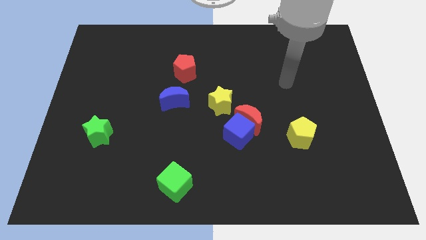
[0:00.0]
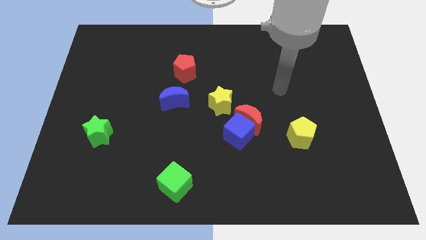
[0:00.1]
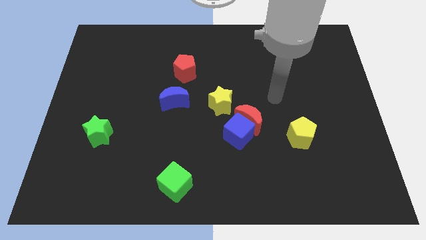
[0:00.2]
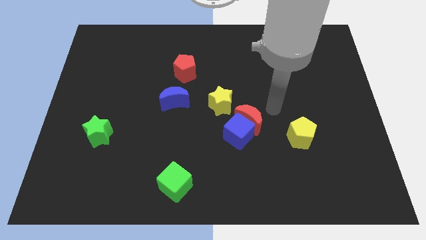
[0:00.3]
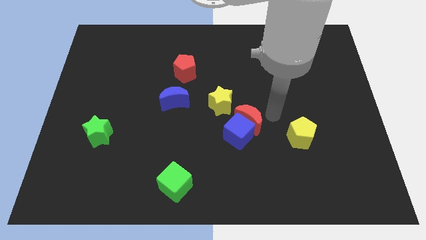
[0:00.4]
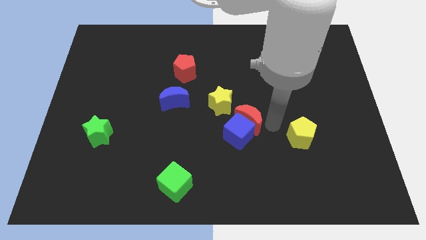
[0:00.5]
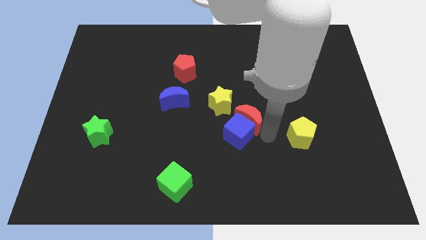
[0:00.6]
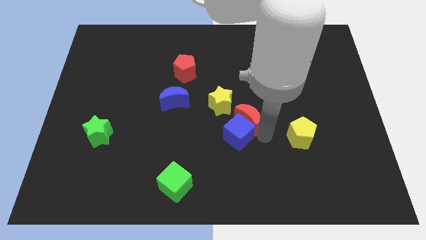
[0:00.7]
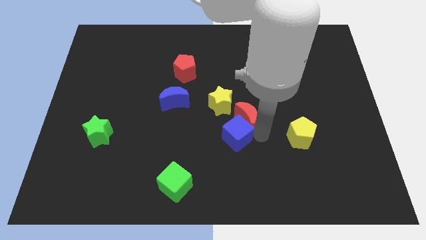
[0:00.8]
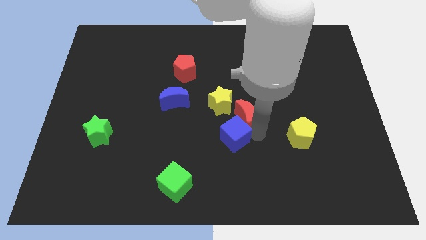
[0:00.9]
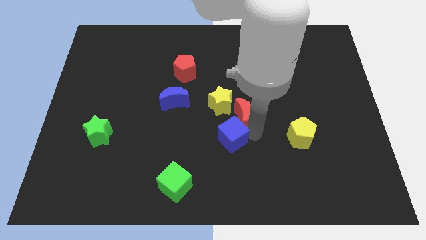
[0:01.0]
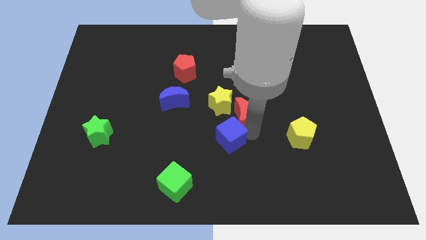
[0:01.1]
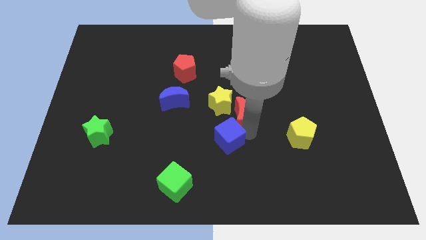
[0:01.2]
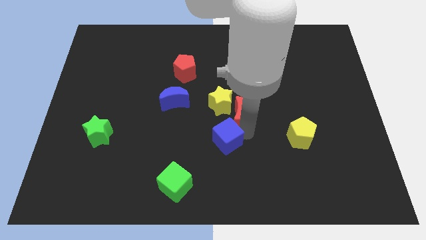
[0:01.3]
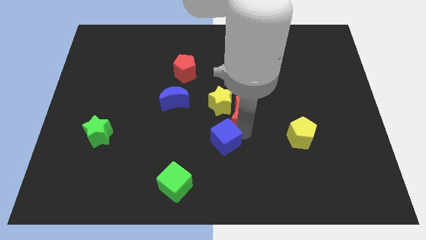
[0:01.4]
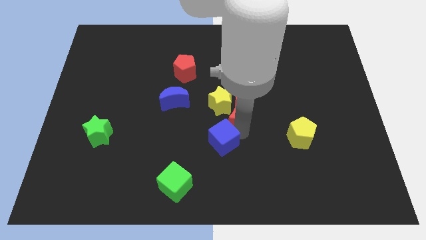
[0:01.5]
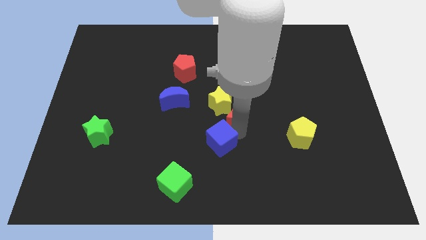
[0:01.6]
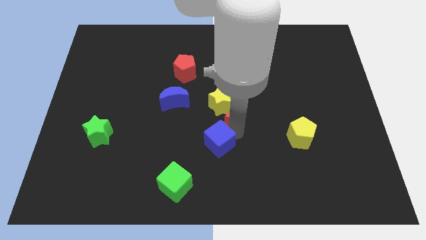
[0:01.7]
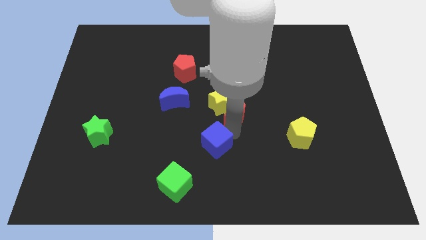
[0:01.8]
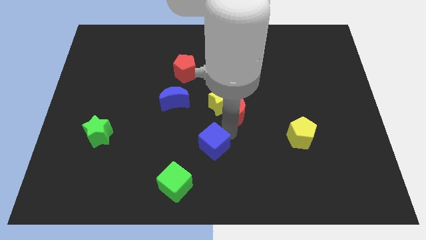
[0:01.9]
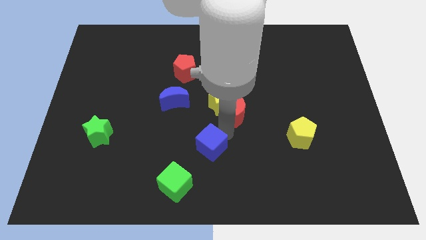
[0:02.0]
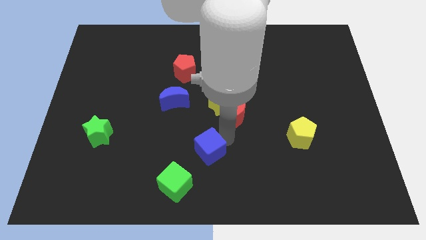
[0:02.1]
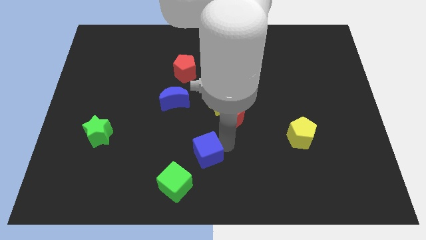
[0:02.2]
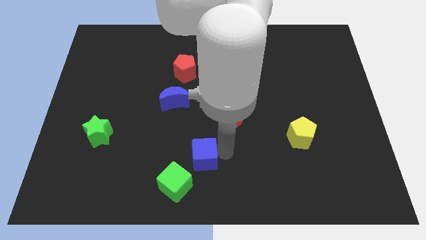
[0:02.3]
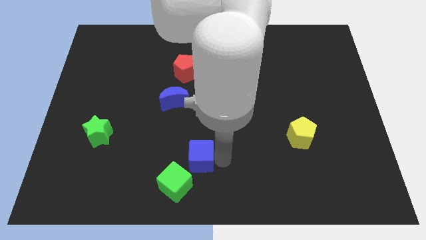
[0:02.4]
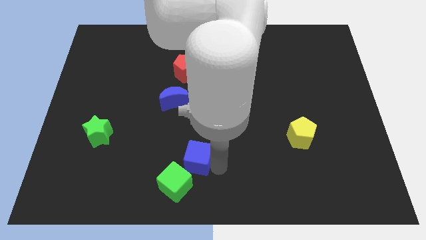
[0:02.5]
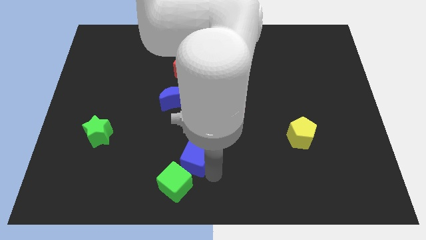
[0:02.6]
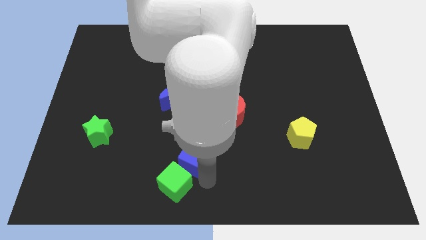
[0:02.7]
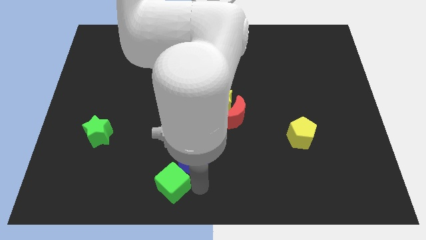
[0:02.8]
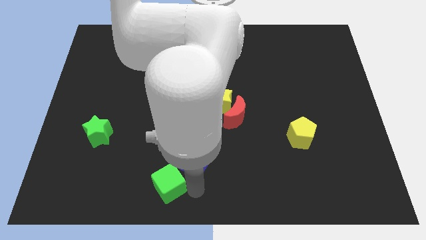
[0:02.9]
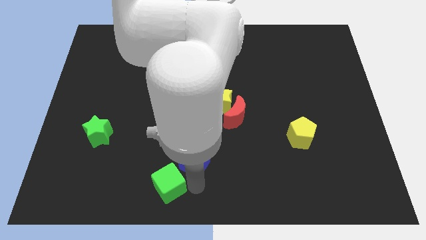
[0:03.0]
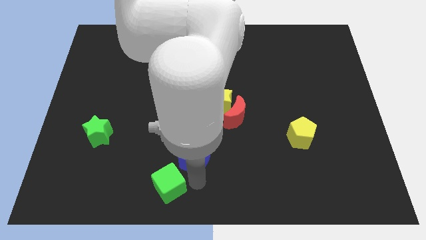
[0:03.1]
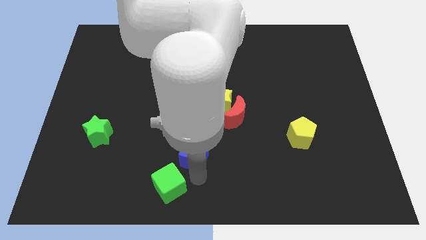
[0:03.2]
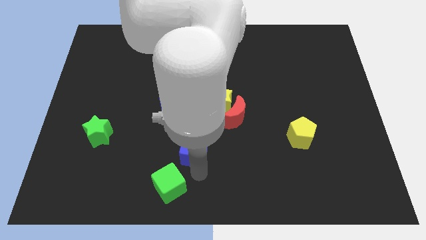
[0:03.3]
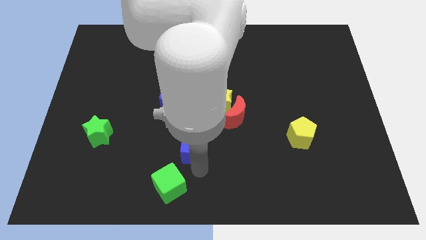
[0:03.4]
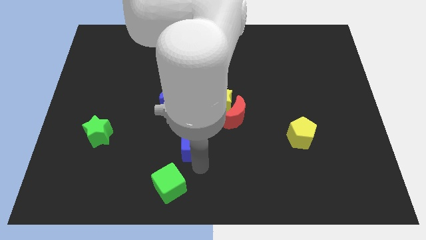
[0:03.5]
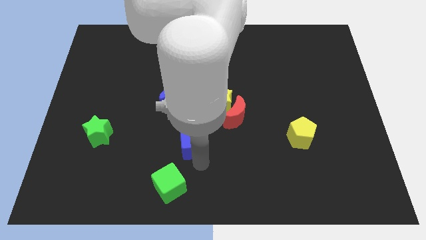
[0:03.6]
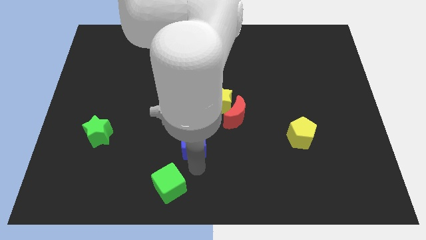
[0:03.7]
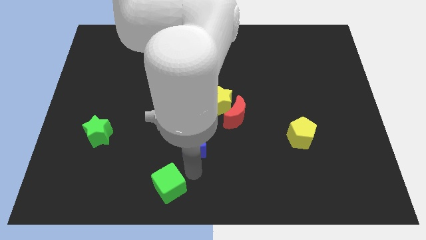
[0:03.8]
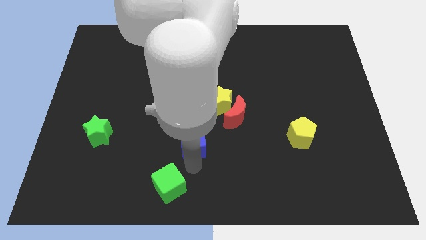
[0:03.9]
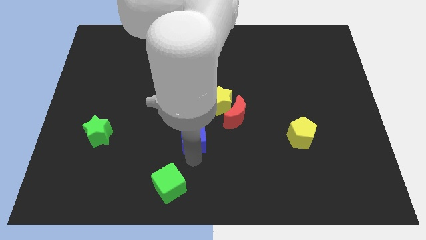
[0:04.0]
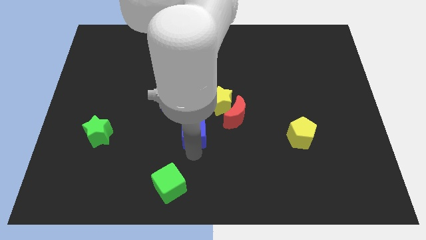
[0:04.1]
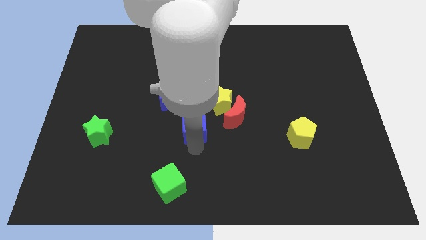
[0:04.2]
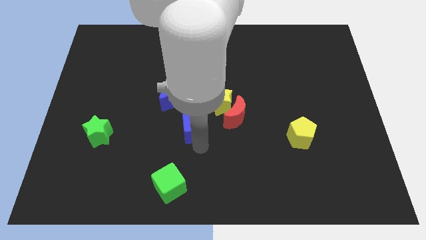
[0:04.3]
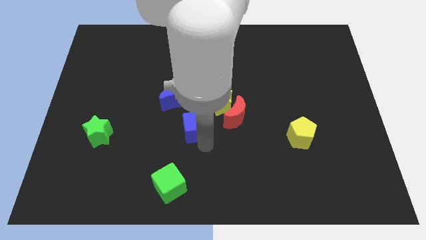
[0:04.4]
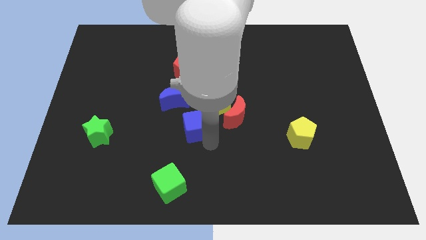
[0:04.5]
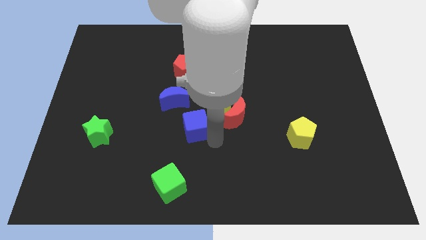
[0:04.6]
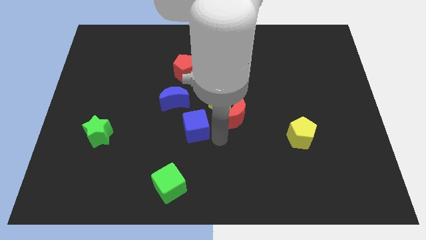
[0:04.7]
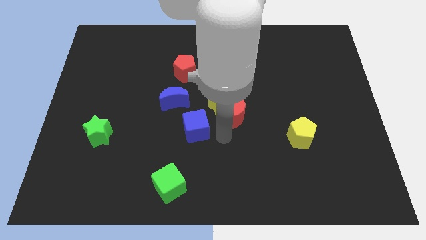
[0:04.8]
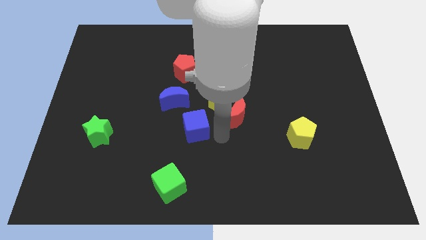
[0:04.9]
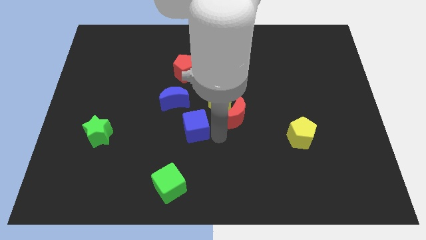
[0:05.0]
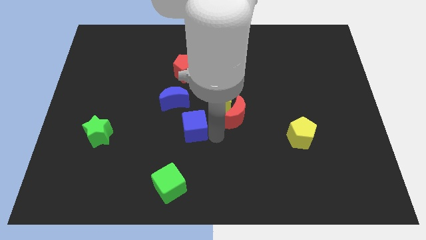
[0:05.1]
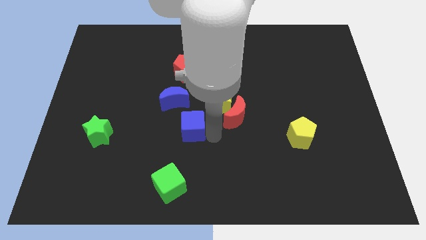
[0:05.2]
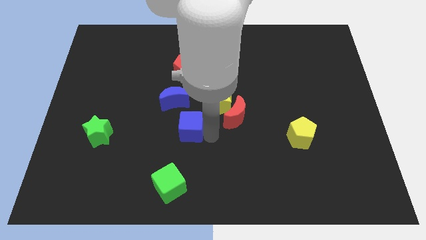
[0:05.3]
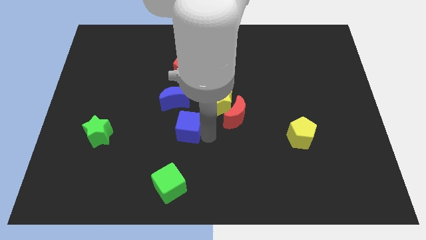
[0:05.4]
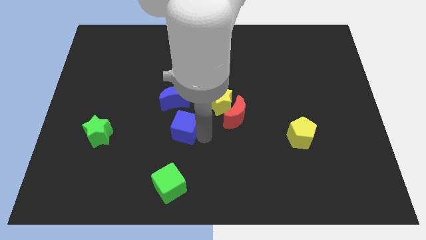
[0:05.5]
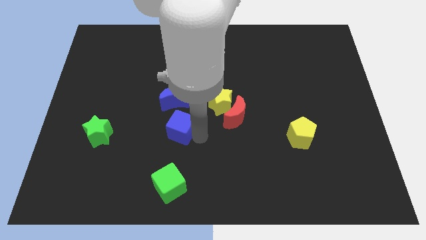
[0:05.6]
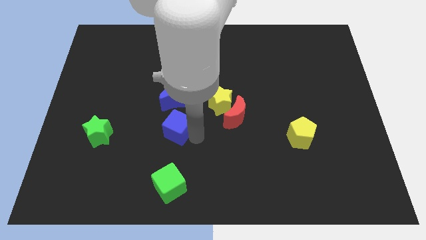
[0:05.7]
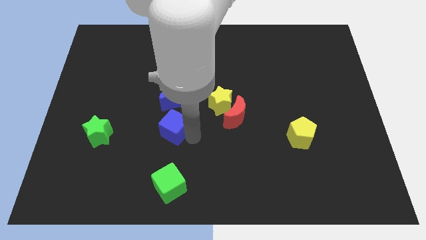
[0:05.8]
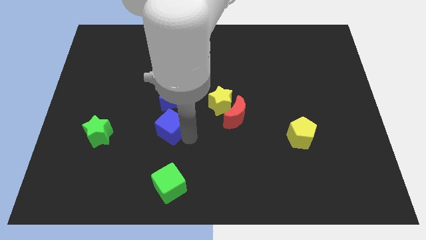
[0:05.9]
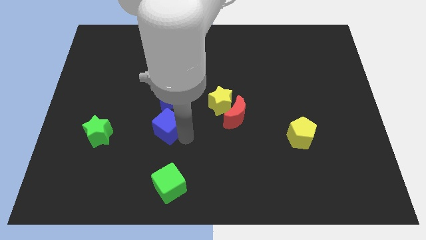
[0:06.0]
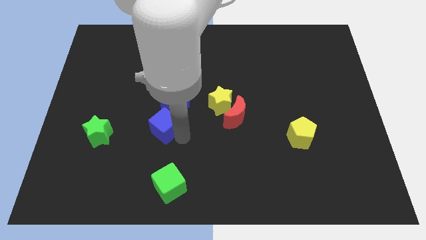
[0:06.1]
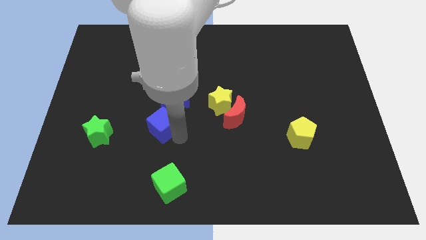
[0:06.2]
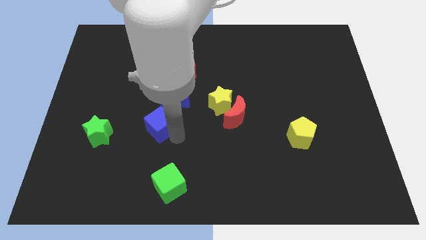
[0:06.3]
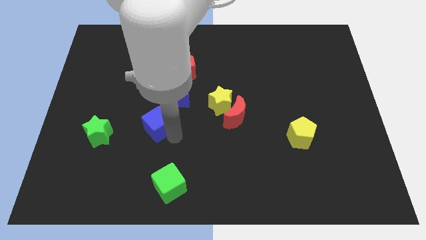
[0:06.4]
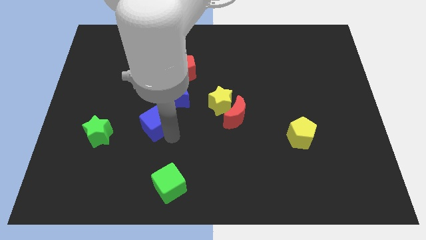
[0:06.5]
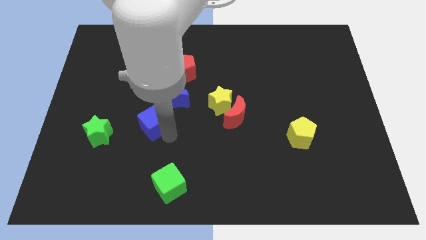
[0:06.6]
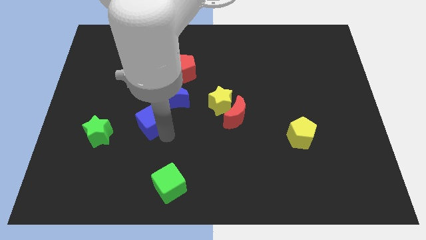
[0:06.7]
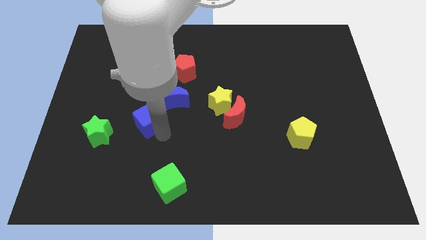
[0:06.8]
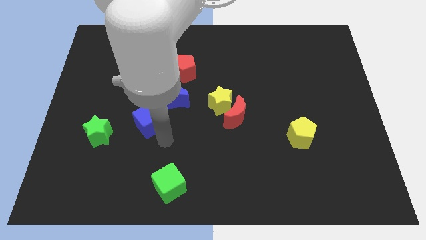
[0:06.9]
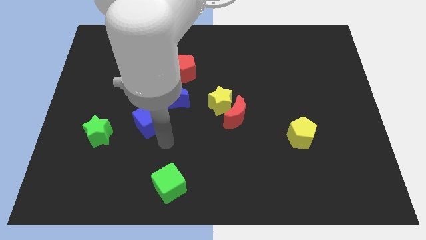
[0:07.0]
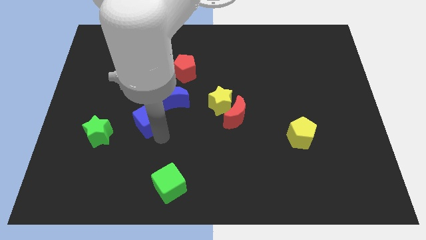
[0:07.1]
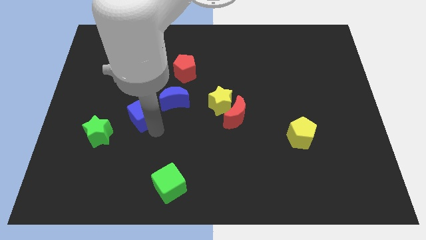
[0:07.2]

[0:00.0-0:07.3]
move the blue cube to the left of the blue moon
